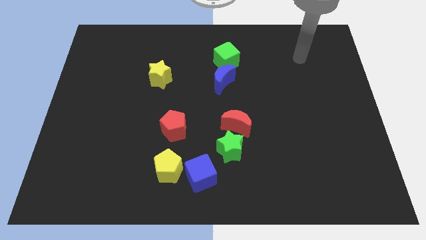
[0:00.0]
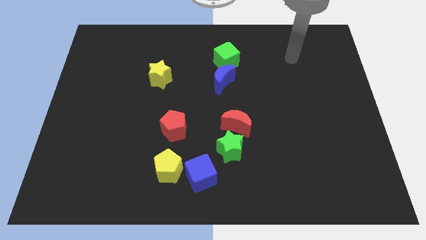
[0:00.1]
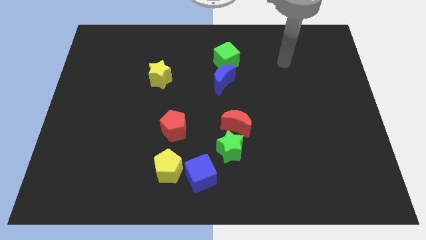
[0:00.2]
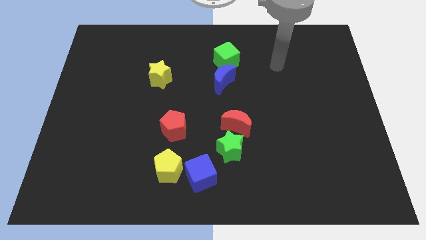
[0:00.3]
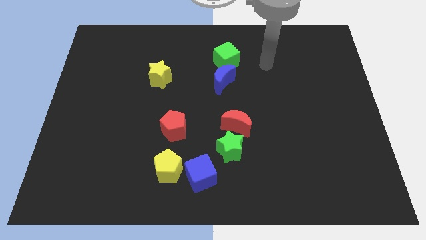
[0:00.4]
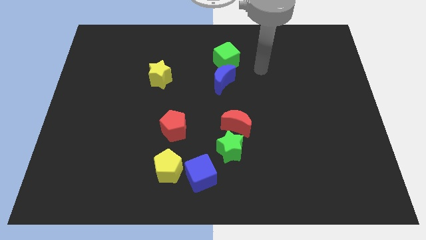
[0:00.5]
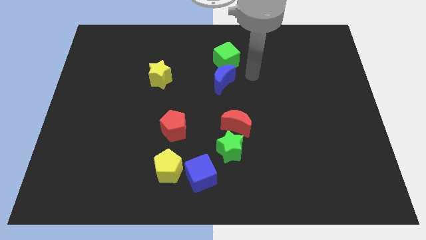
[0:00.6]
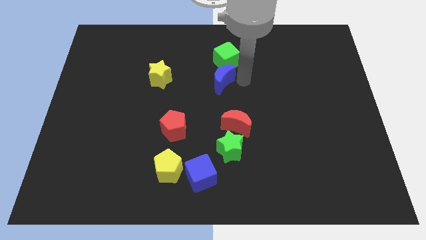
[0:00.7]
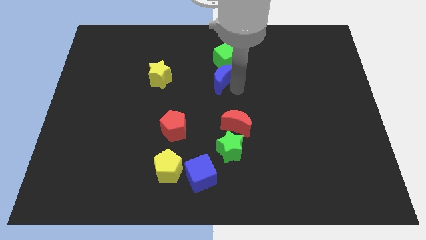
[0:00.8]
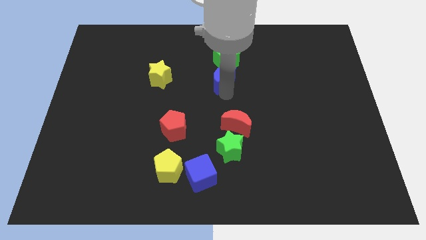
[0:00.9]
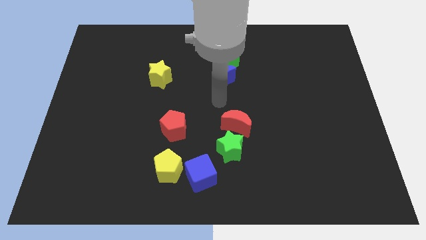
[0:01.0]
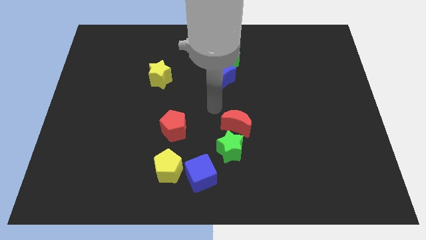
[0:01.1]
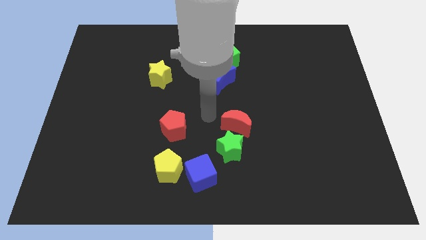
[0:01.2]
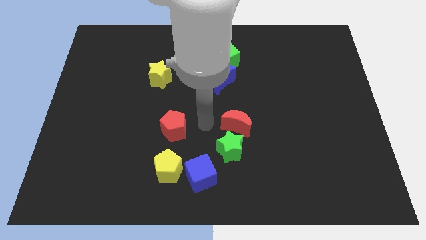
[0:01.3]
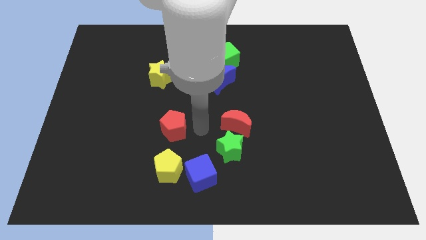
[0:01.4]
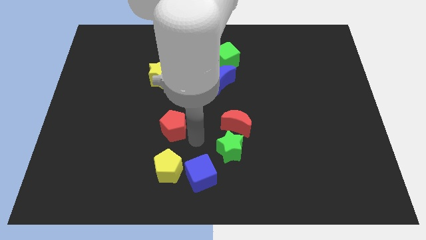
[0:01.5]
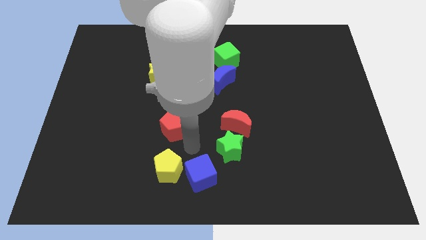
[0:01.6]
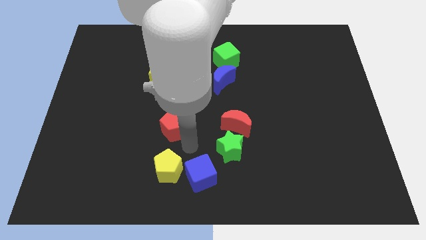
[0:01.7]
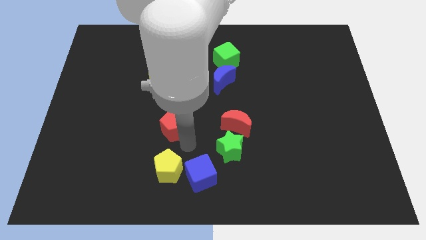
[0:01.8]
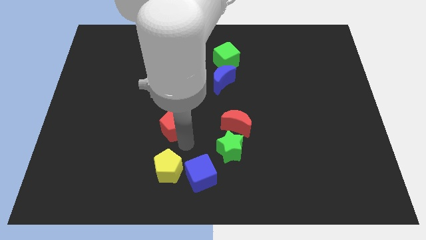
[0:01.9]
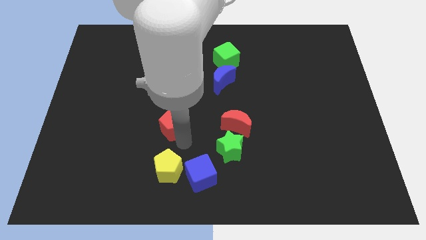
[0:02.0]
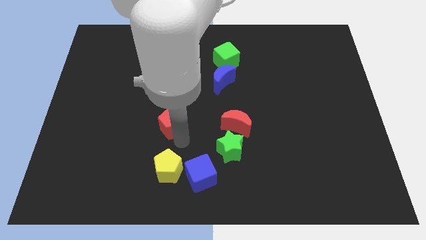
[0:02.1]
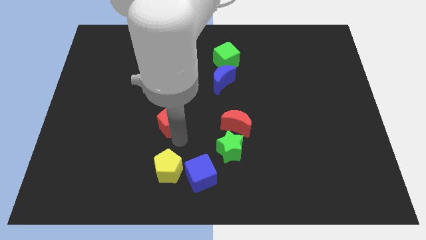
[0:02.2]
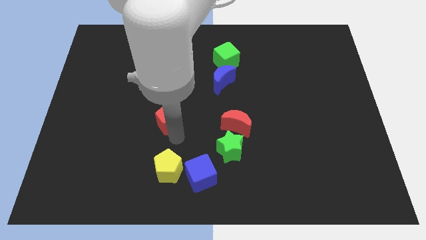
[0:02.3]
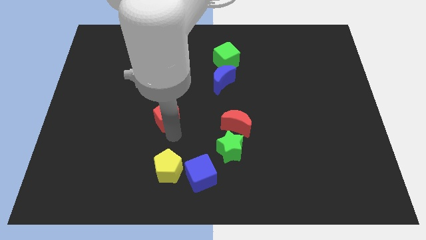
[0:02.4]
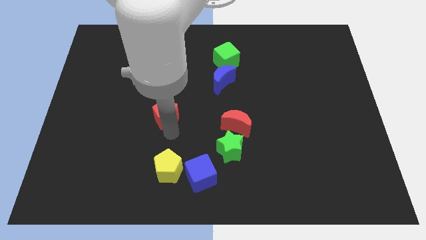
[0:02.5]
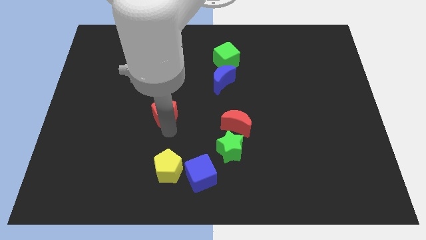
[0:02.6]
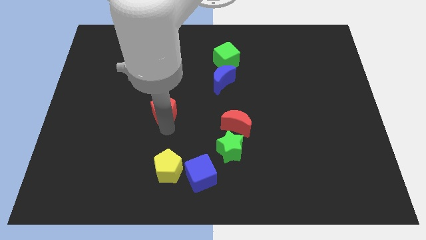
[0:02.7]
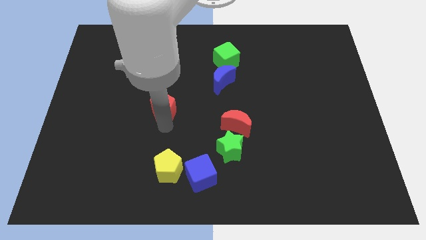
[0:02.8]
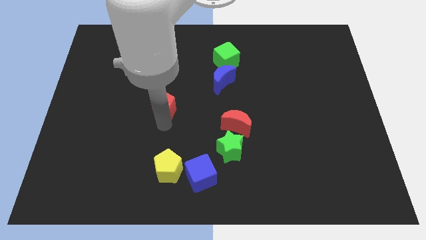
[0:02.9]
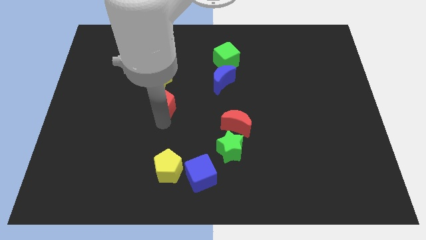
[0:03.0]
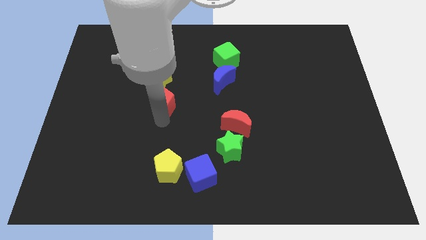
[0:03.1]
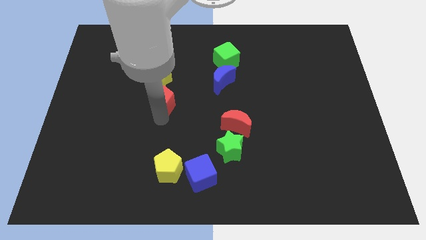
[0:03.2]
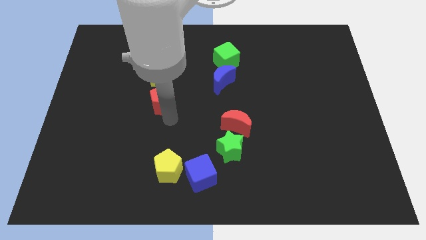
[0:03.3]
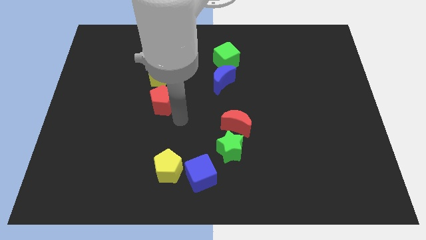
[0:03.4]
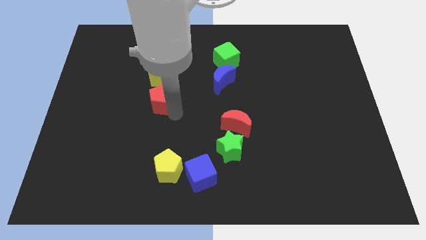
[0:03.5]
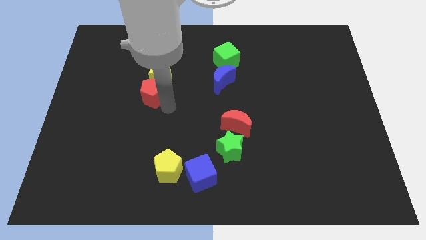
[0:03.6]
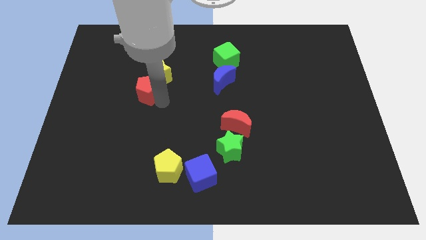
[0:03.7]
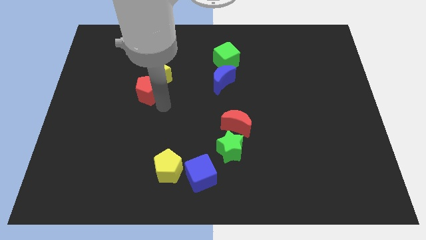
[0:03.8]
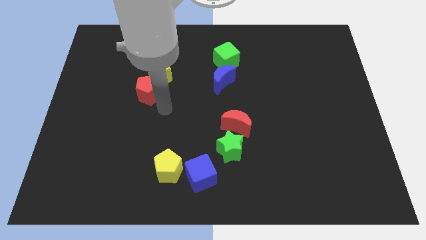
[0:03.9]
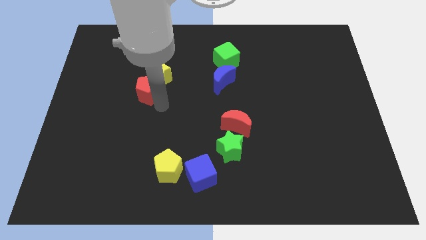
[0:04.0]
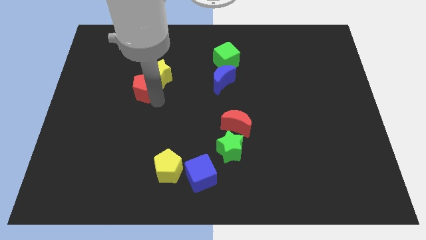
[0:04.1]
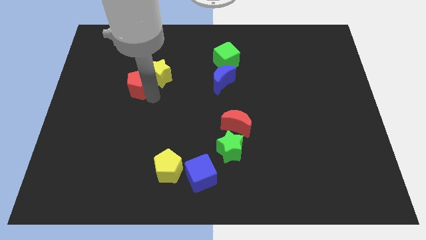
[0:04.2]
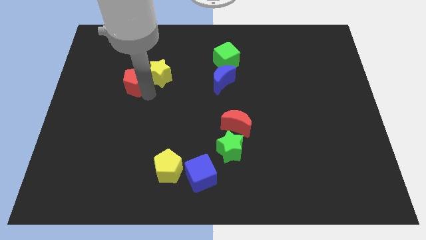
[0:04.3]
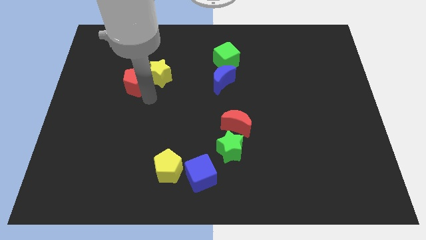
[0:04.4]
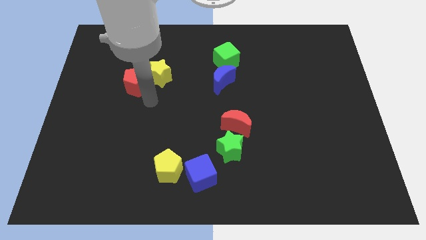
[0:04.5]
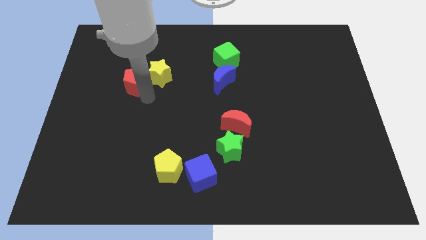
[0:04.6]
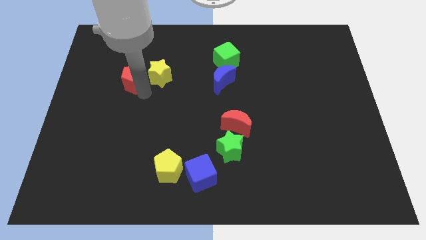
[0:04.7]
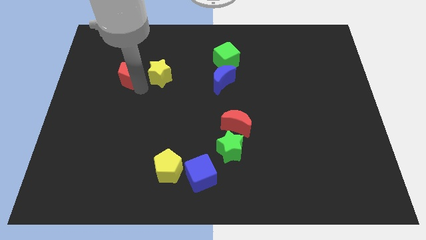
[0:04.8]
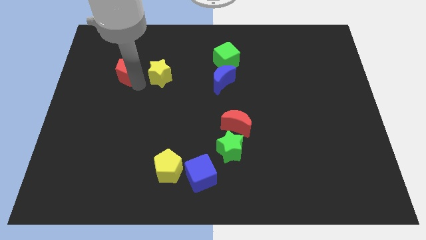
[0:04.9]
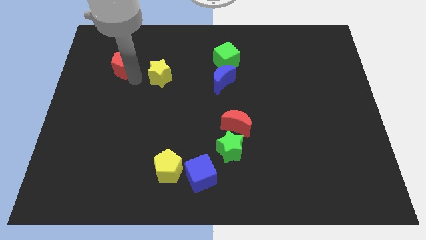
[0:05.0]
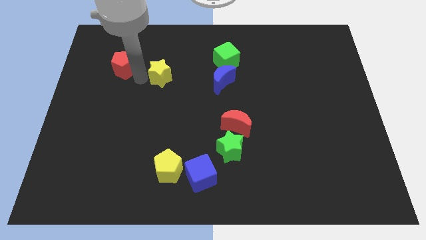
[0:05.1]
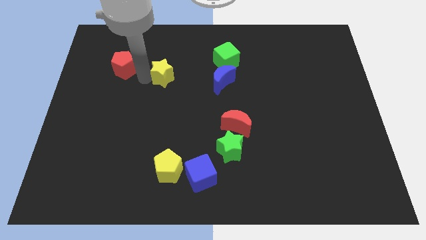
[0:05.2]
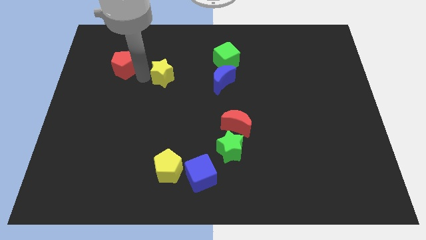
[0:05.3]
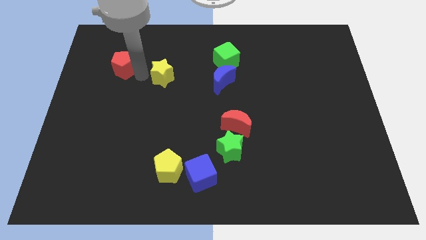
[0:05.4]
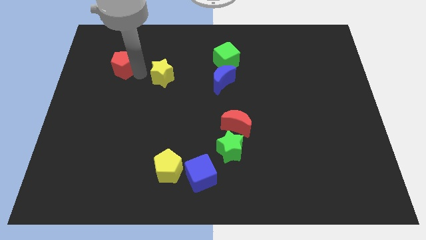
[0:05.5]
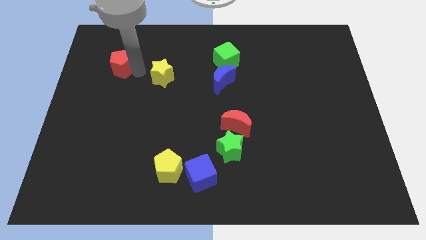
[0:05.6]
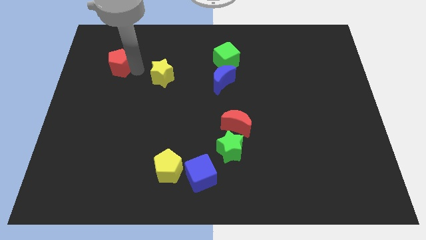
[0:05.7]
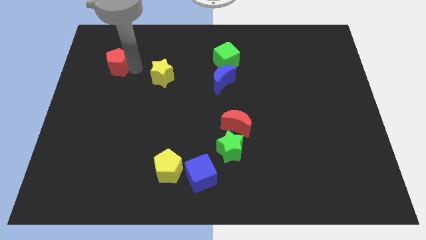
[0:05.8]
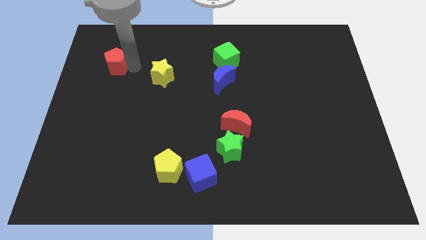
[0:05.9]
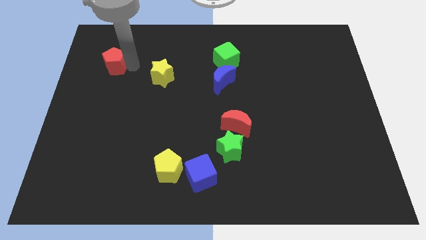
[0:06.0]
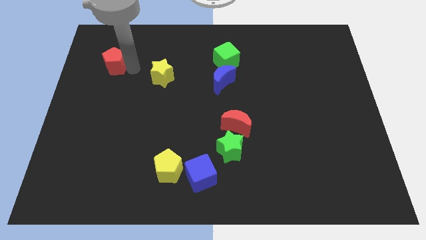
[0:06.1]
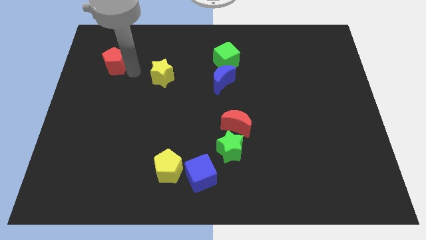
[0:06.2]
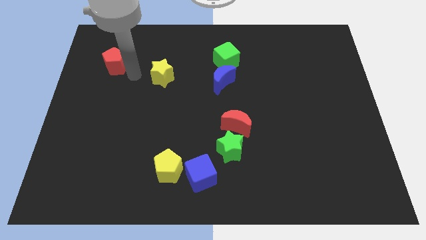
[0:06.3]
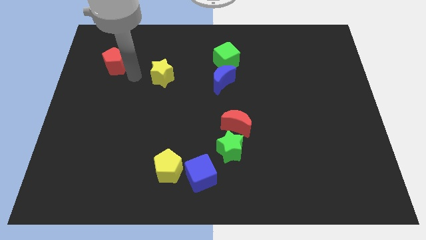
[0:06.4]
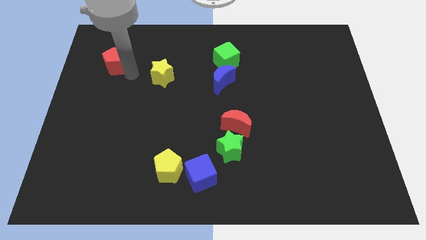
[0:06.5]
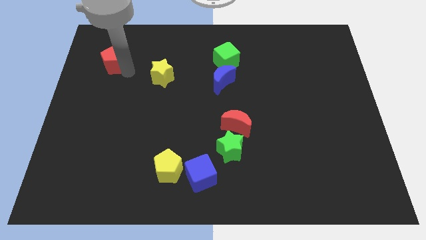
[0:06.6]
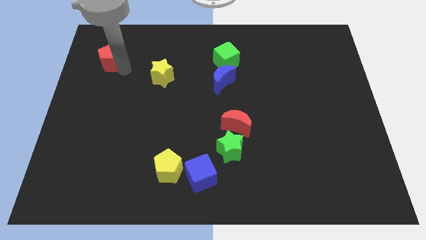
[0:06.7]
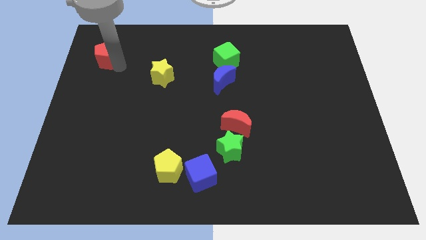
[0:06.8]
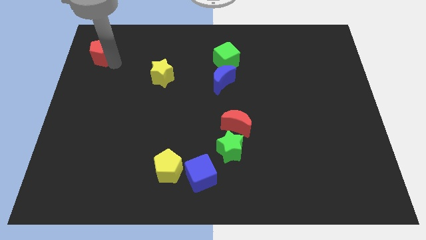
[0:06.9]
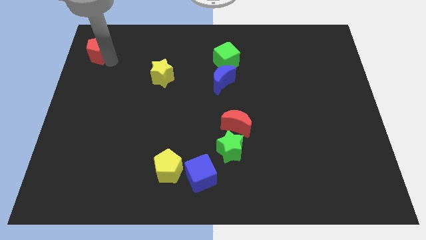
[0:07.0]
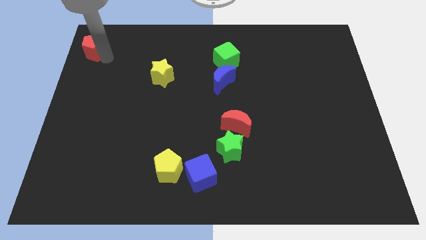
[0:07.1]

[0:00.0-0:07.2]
slide the red pentagon to the top left corner

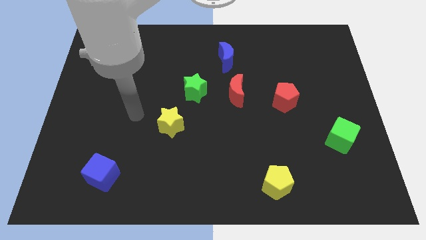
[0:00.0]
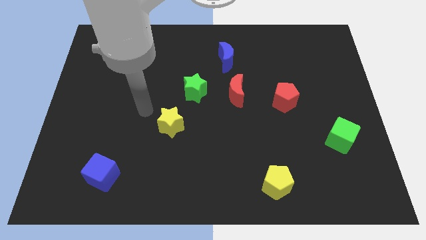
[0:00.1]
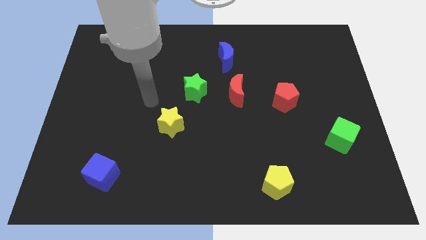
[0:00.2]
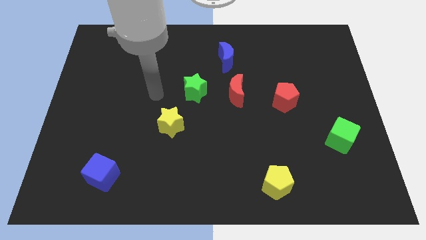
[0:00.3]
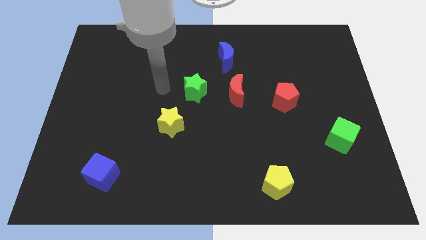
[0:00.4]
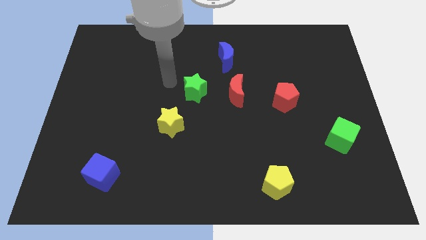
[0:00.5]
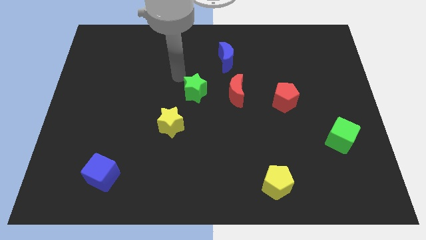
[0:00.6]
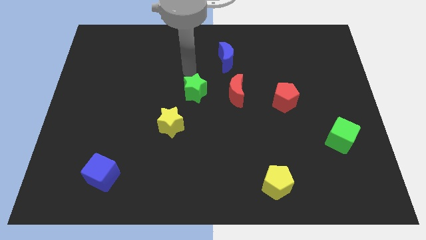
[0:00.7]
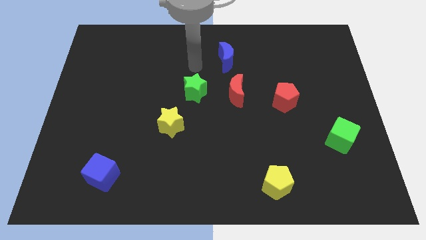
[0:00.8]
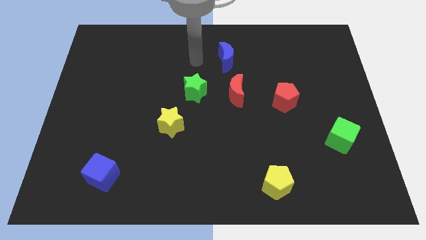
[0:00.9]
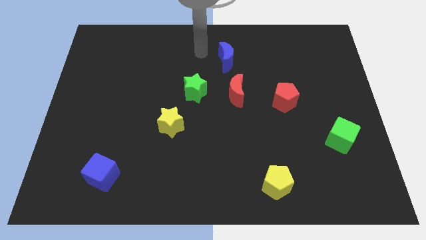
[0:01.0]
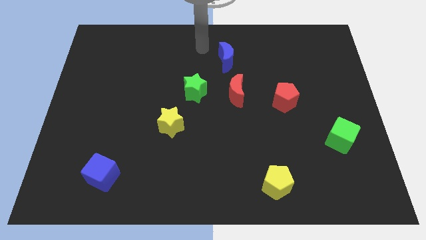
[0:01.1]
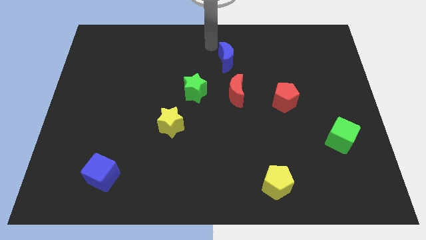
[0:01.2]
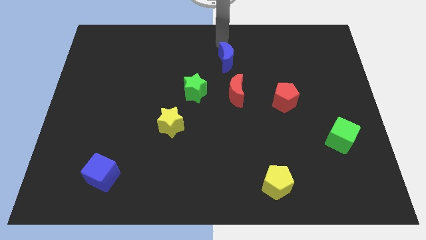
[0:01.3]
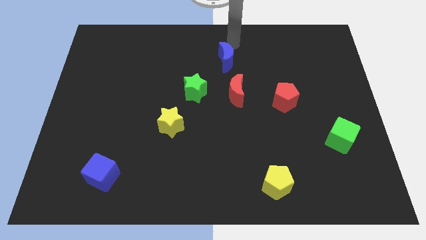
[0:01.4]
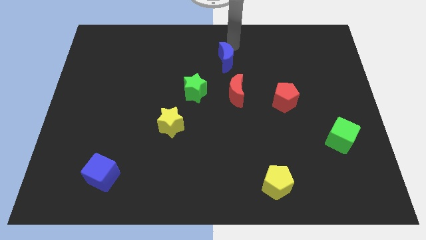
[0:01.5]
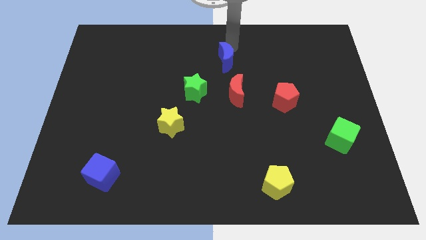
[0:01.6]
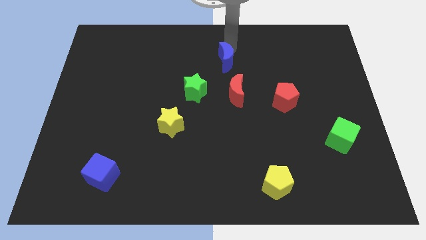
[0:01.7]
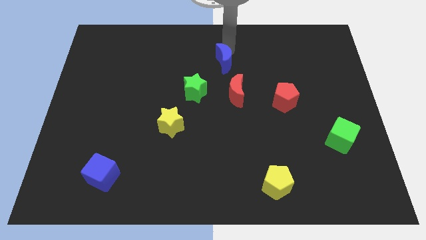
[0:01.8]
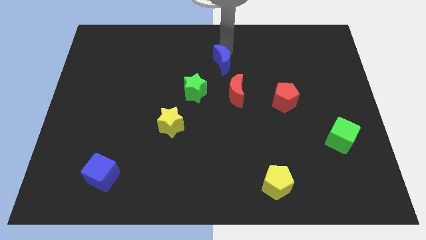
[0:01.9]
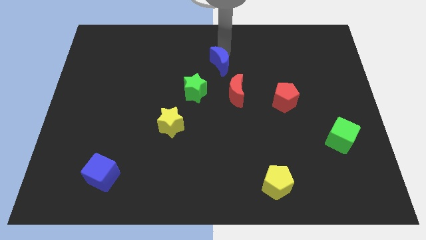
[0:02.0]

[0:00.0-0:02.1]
push the blue moon to the middle
